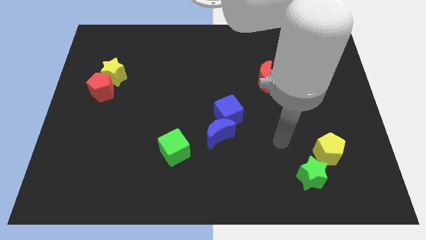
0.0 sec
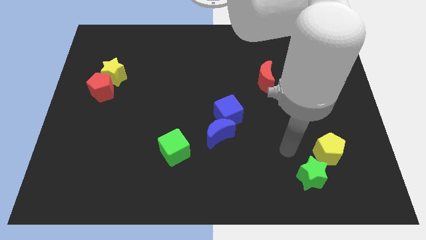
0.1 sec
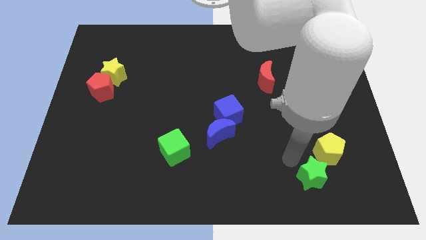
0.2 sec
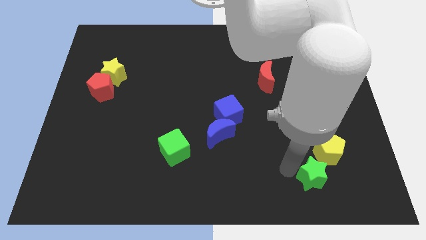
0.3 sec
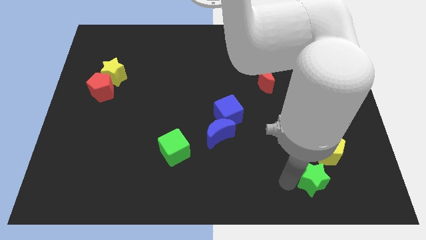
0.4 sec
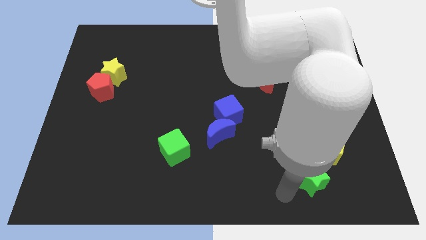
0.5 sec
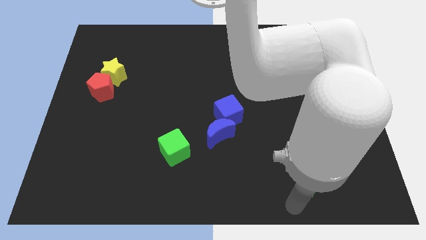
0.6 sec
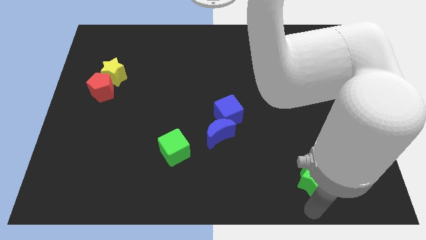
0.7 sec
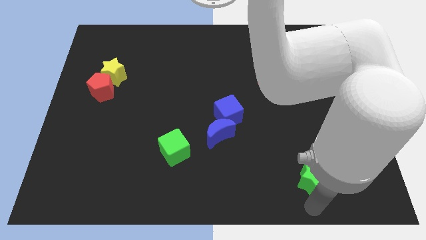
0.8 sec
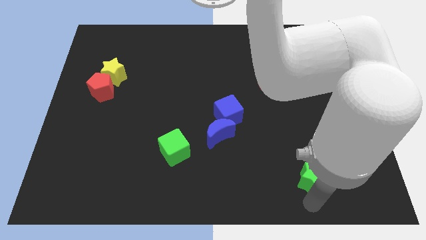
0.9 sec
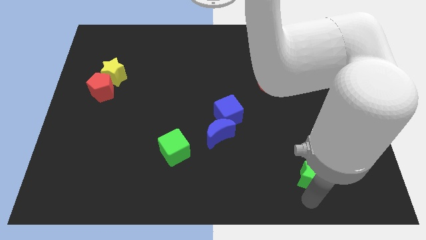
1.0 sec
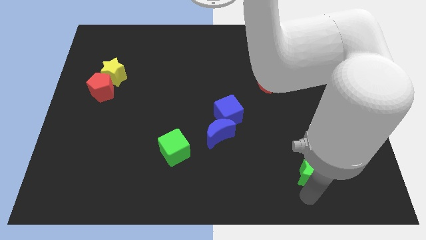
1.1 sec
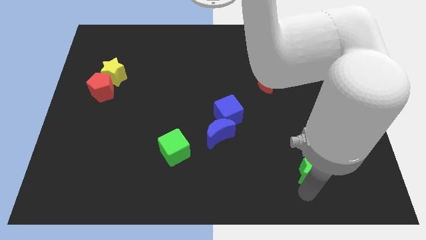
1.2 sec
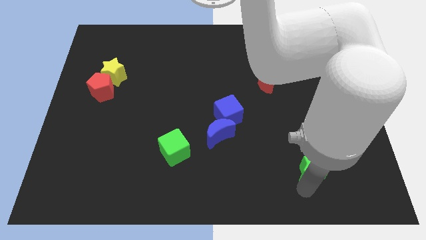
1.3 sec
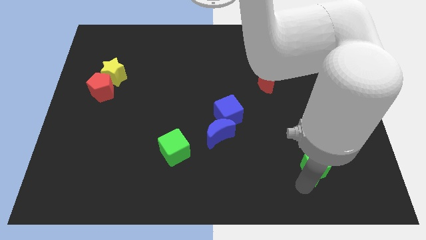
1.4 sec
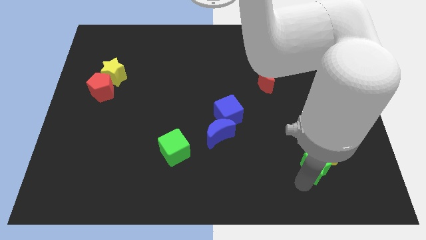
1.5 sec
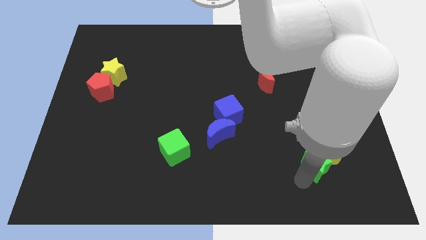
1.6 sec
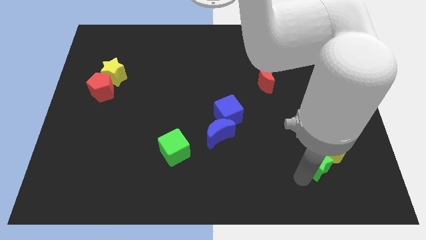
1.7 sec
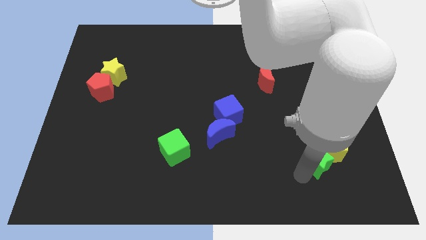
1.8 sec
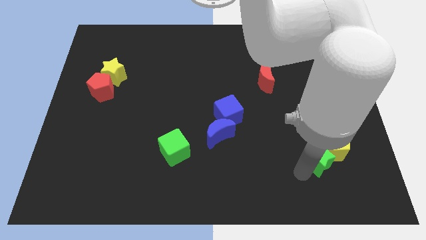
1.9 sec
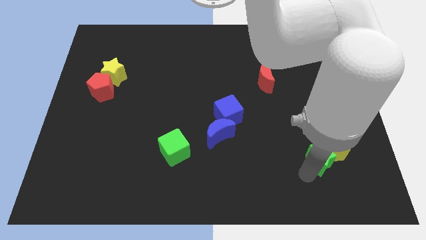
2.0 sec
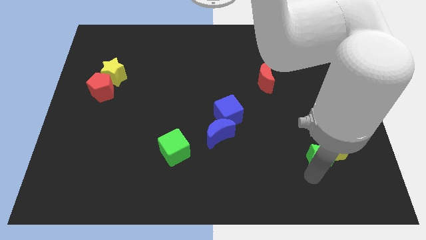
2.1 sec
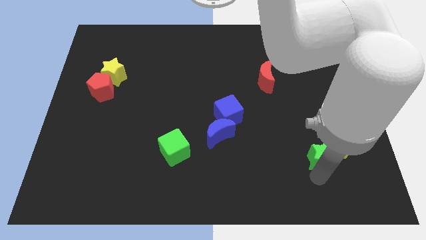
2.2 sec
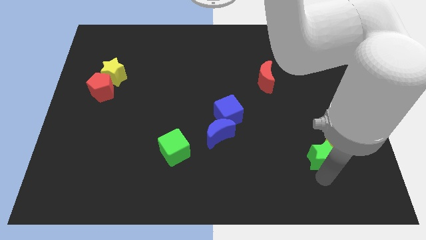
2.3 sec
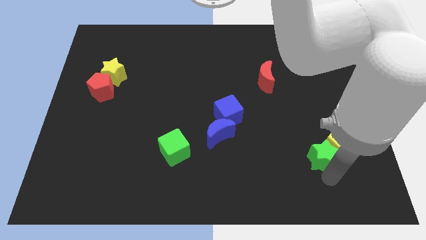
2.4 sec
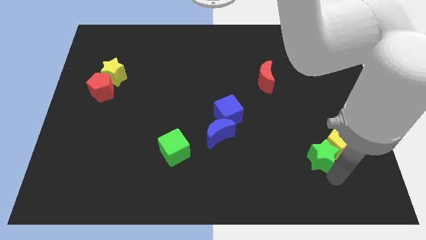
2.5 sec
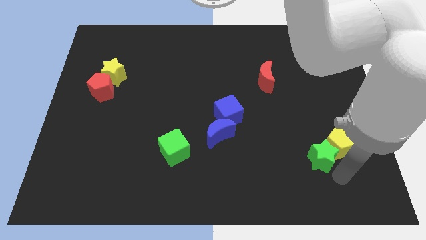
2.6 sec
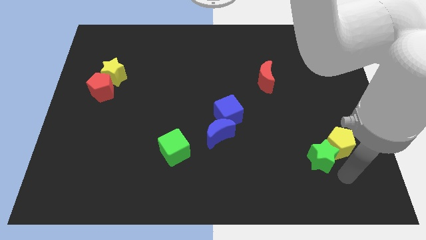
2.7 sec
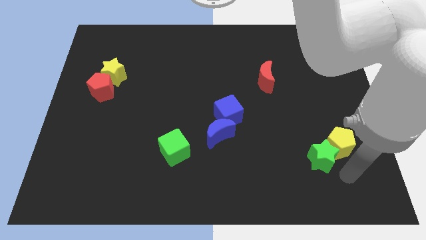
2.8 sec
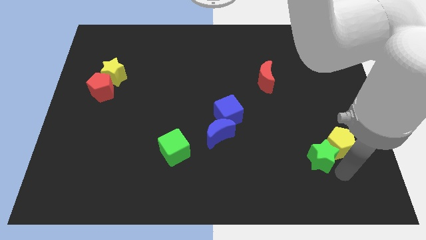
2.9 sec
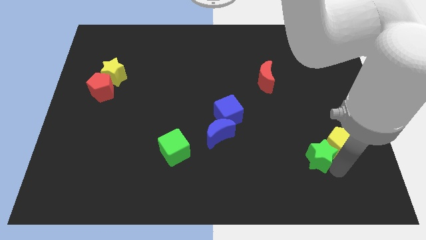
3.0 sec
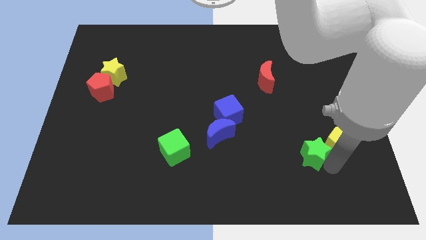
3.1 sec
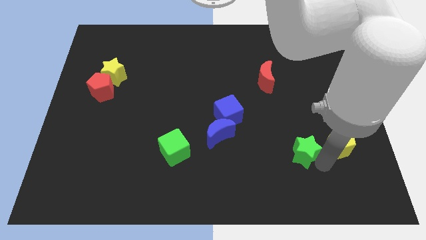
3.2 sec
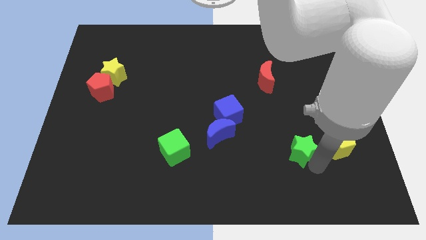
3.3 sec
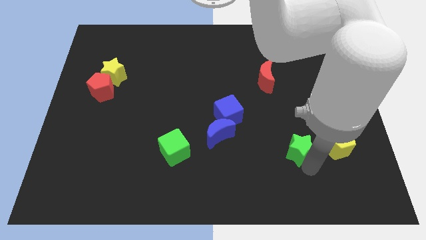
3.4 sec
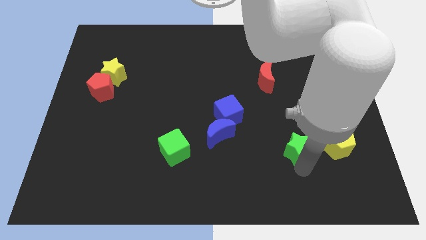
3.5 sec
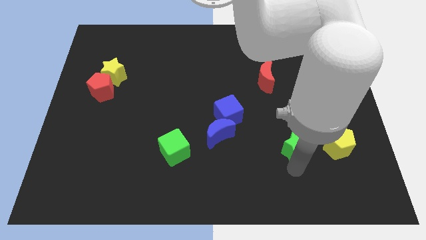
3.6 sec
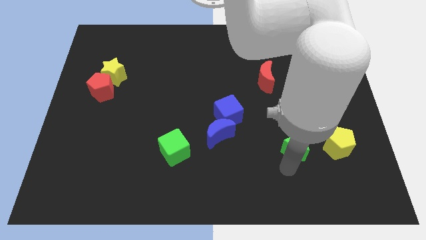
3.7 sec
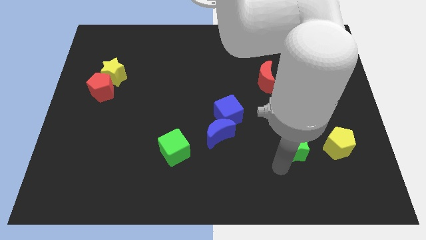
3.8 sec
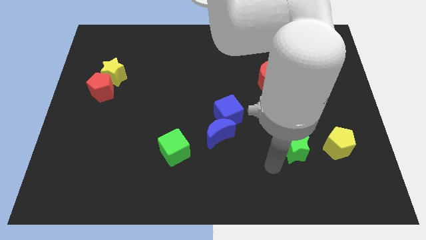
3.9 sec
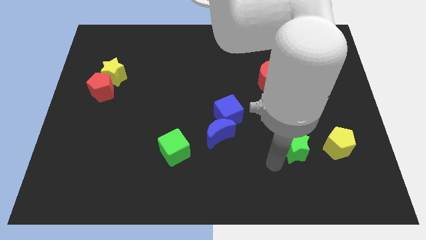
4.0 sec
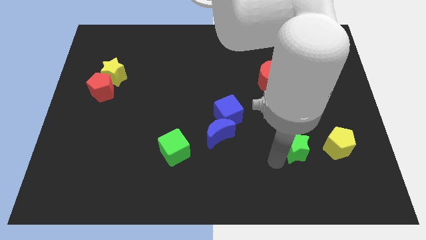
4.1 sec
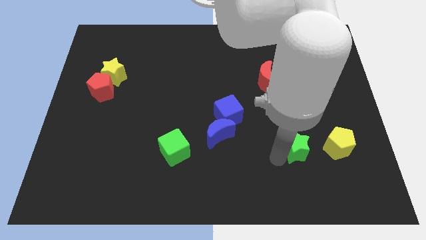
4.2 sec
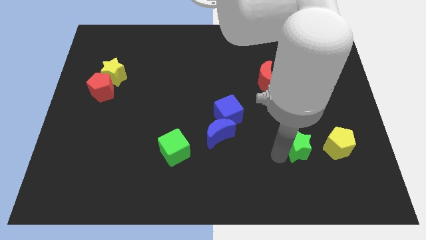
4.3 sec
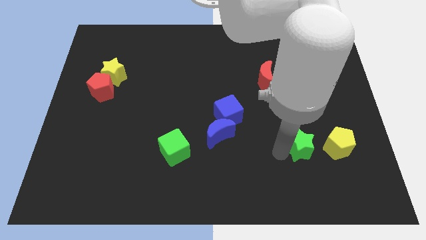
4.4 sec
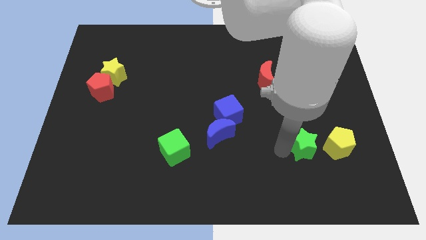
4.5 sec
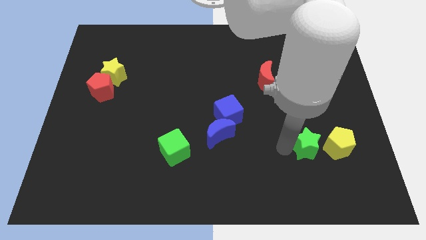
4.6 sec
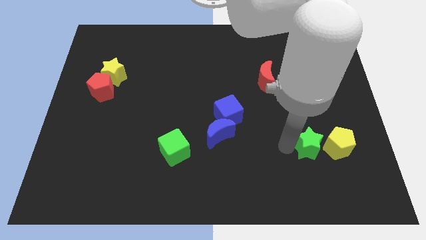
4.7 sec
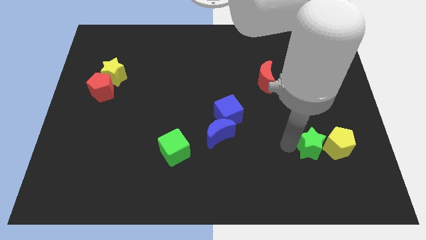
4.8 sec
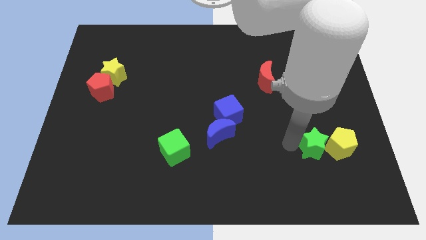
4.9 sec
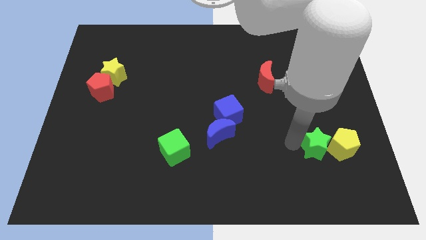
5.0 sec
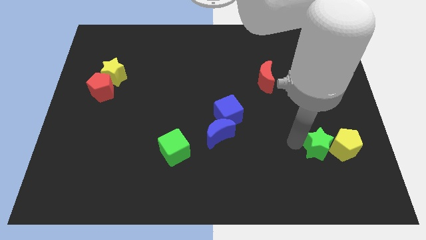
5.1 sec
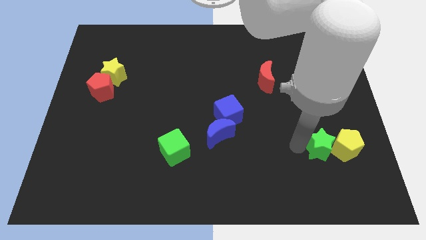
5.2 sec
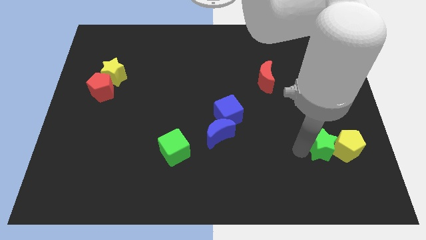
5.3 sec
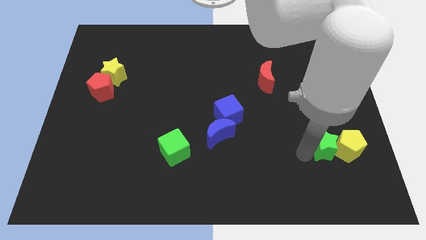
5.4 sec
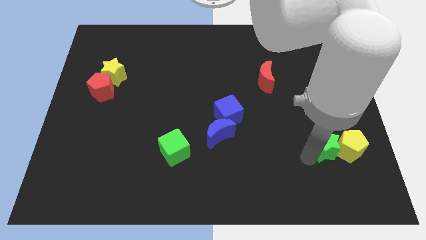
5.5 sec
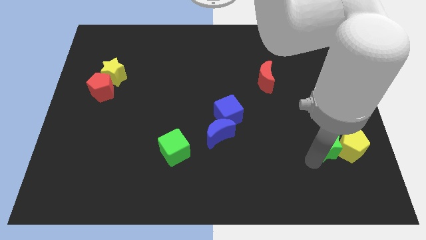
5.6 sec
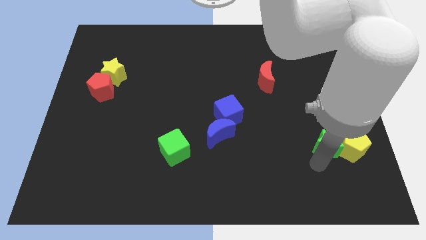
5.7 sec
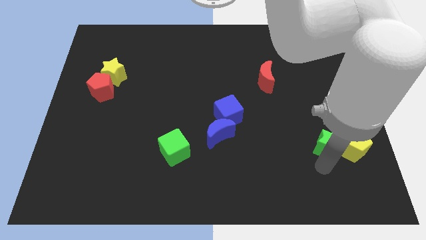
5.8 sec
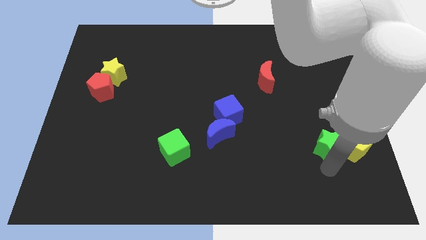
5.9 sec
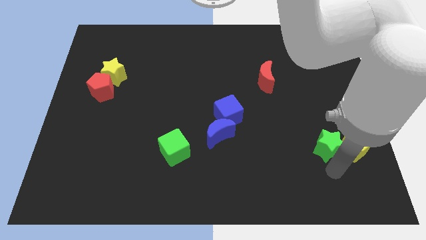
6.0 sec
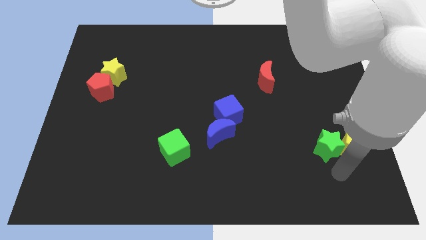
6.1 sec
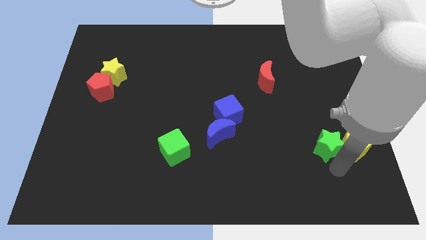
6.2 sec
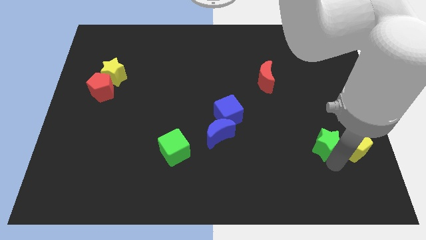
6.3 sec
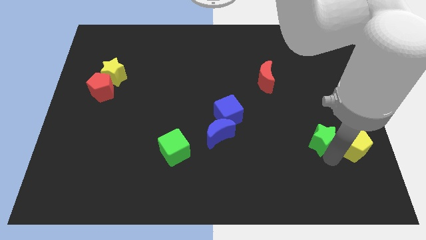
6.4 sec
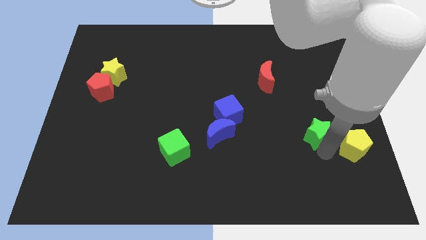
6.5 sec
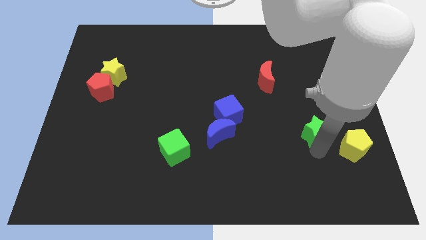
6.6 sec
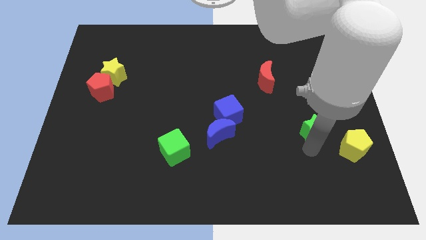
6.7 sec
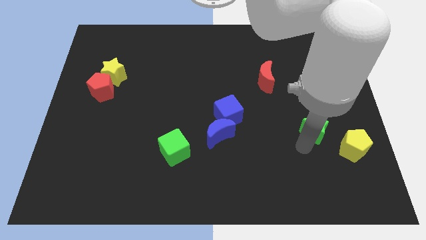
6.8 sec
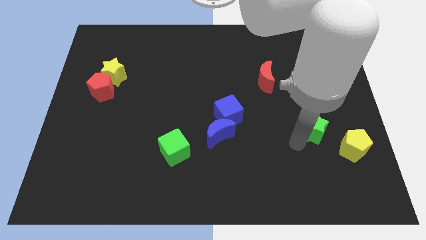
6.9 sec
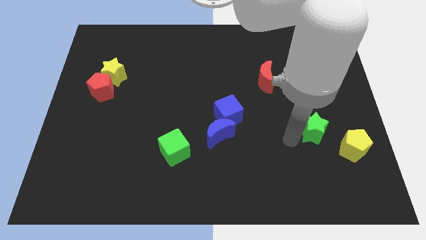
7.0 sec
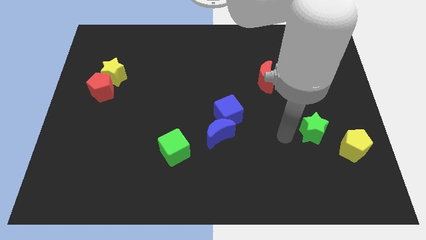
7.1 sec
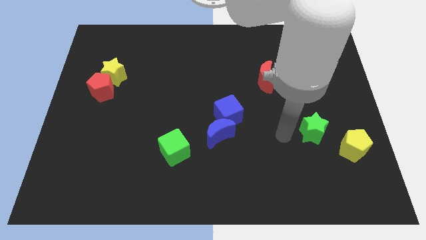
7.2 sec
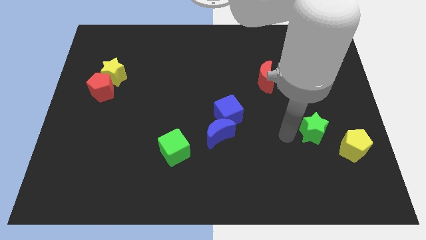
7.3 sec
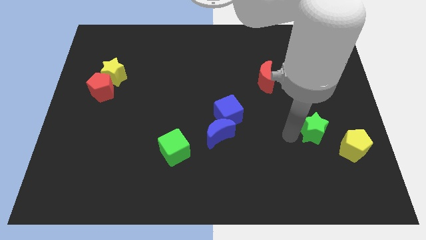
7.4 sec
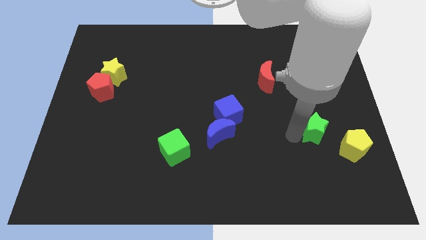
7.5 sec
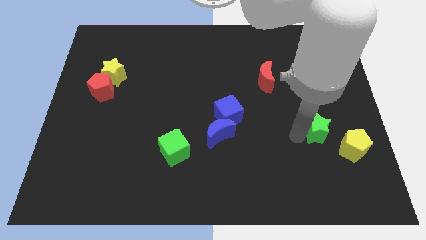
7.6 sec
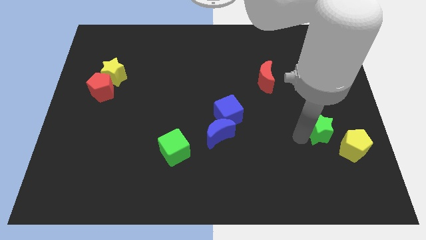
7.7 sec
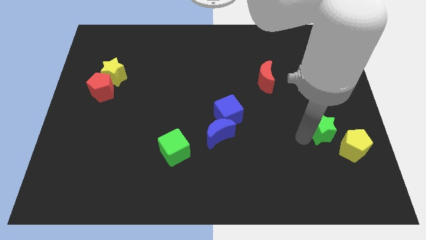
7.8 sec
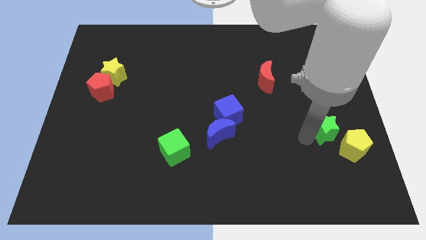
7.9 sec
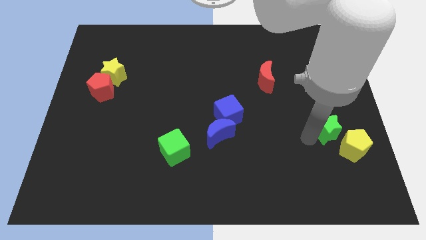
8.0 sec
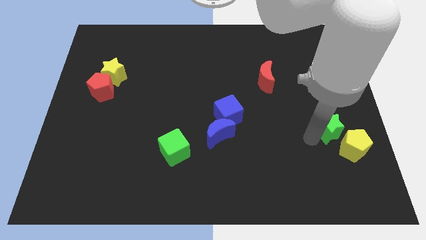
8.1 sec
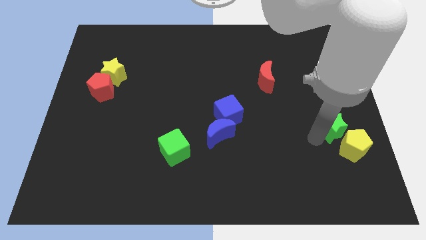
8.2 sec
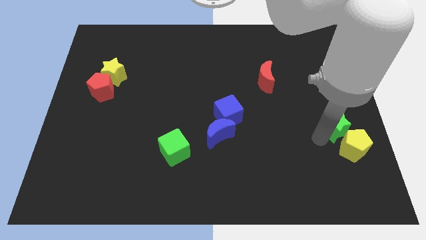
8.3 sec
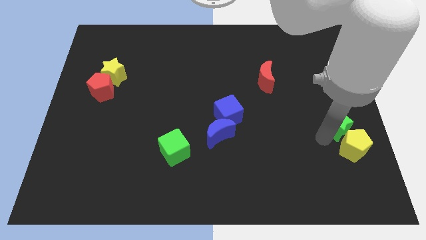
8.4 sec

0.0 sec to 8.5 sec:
slide the green star to the center right
